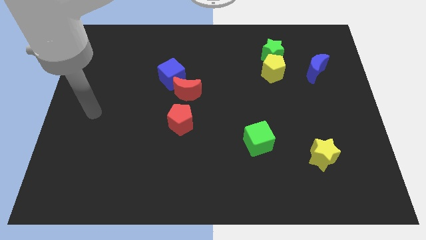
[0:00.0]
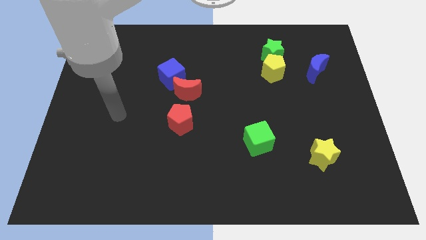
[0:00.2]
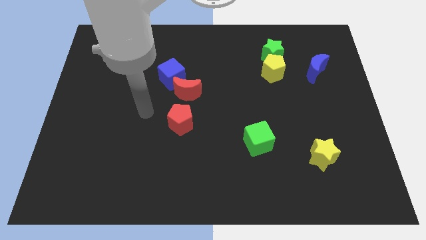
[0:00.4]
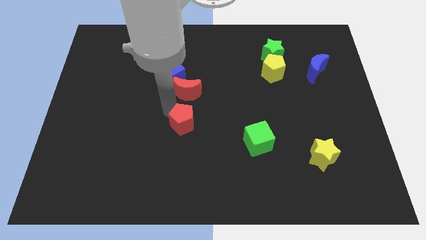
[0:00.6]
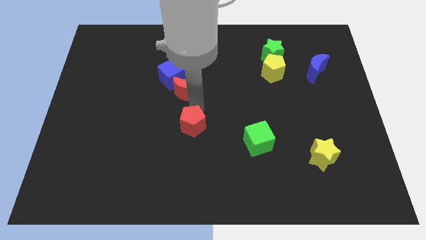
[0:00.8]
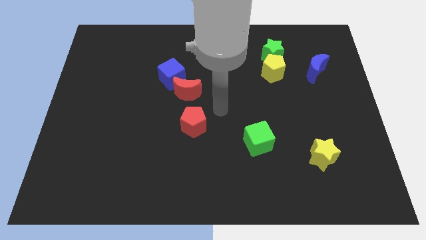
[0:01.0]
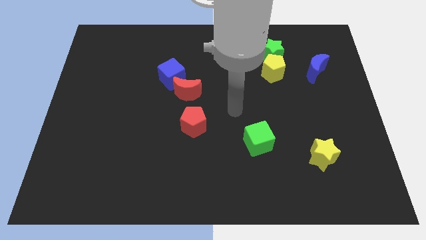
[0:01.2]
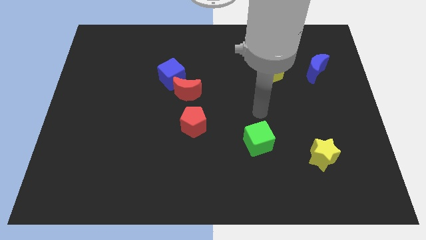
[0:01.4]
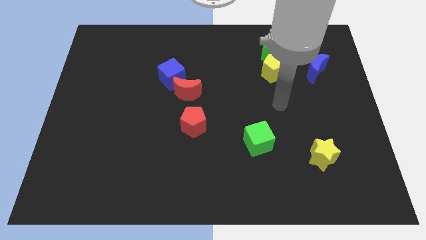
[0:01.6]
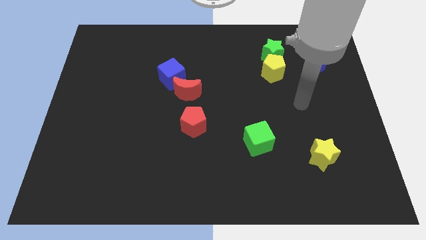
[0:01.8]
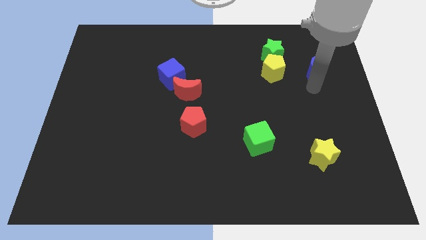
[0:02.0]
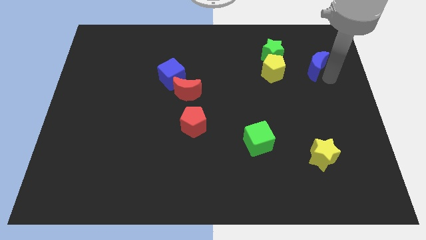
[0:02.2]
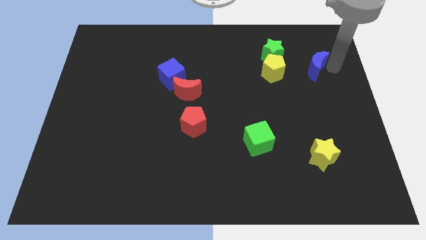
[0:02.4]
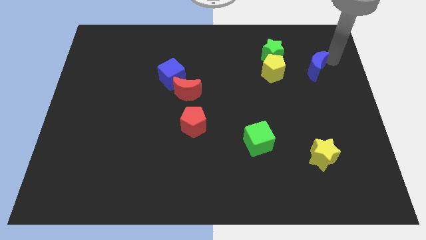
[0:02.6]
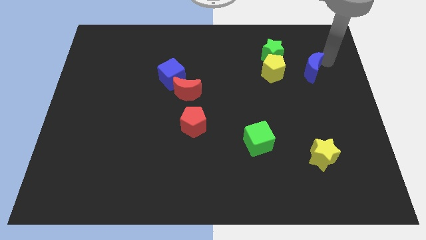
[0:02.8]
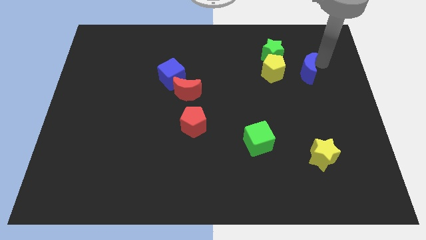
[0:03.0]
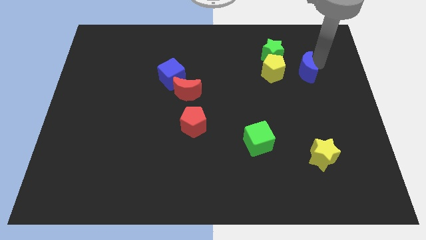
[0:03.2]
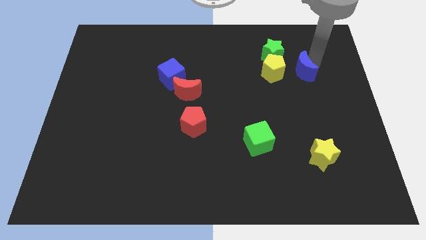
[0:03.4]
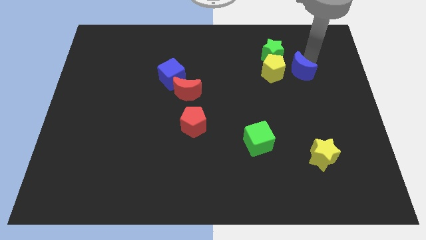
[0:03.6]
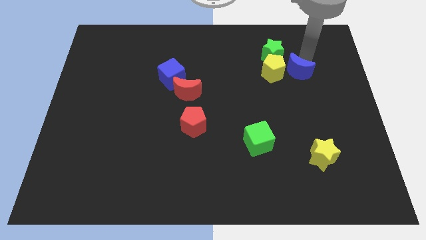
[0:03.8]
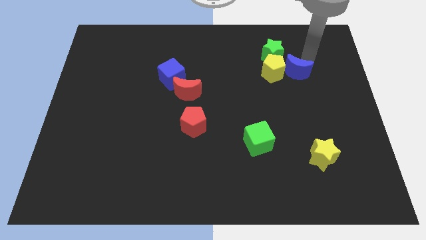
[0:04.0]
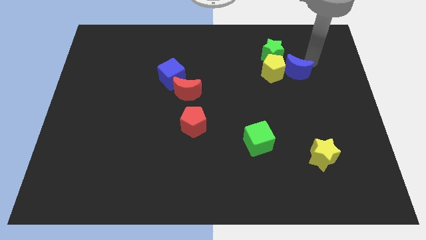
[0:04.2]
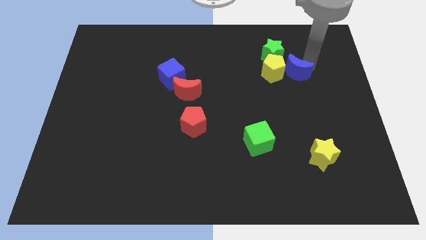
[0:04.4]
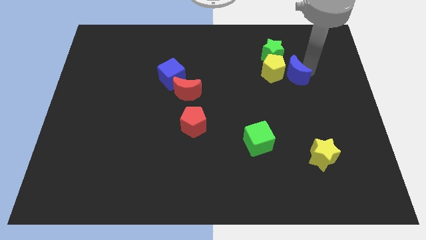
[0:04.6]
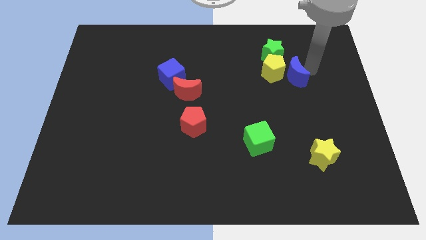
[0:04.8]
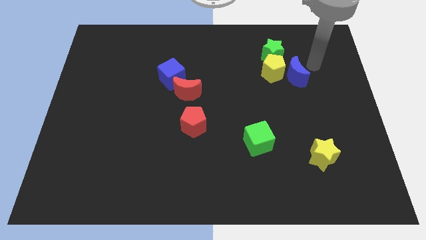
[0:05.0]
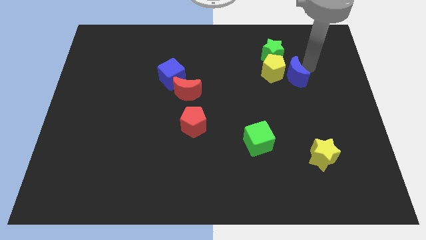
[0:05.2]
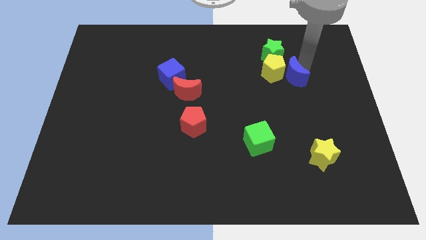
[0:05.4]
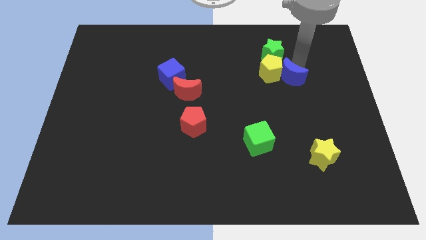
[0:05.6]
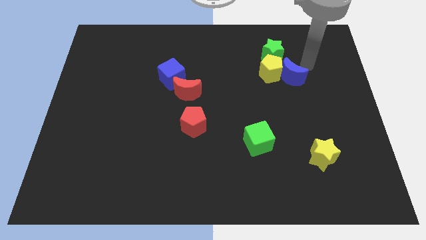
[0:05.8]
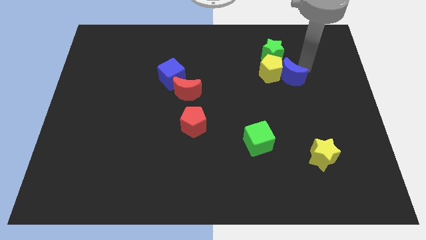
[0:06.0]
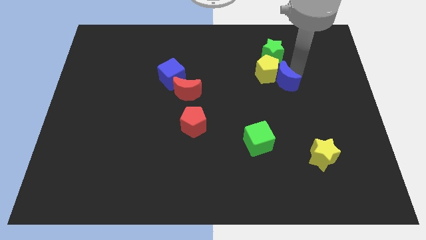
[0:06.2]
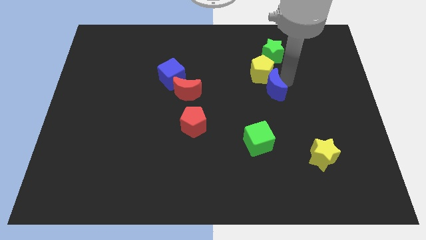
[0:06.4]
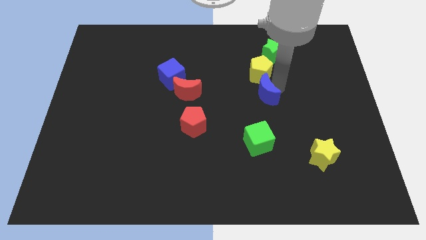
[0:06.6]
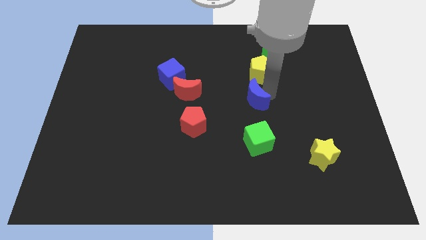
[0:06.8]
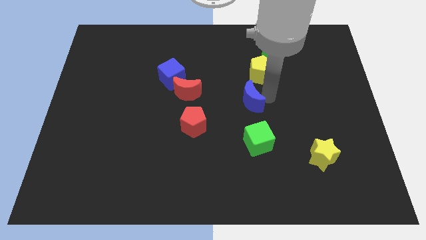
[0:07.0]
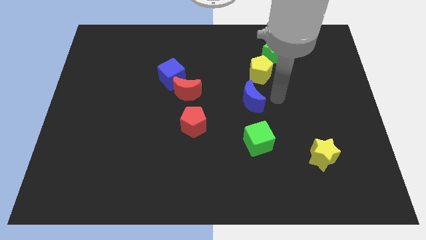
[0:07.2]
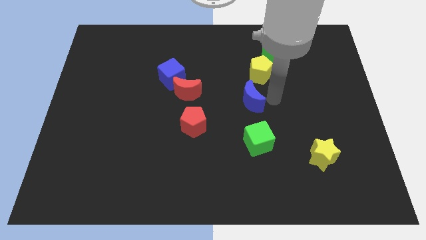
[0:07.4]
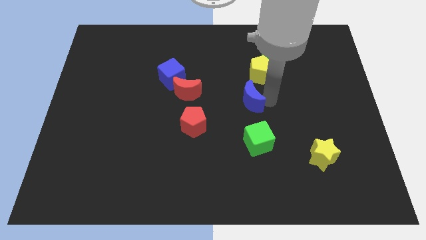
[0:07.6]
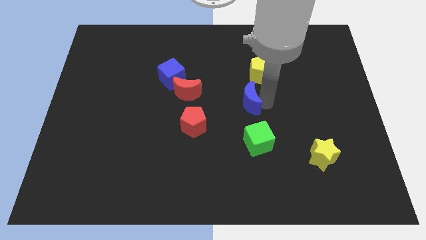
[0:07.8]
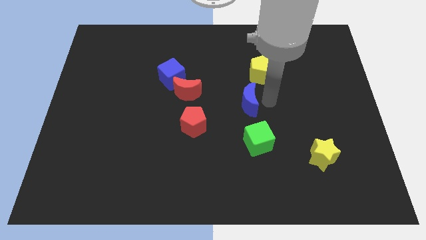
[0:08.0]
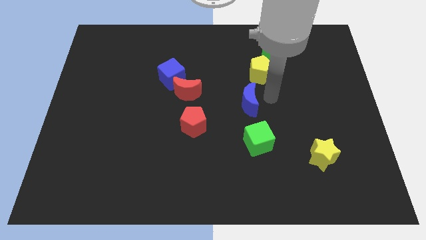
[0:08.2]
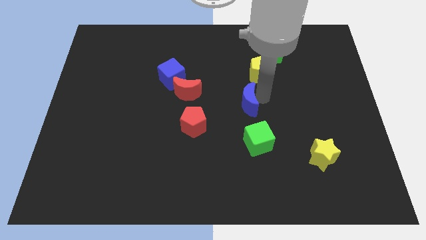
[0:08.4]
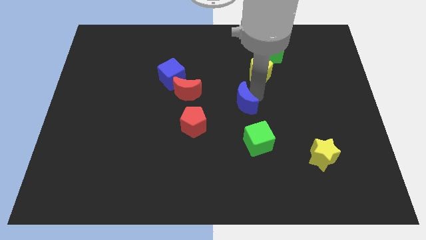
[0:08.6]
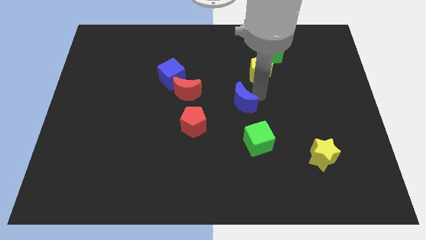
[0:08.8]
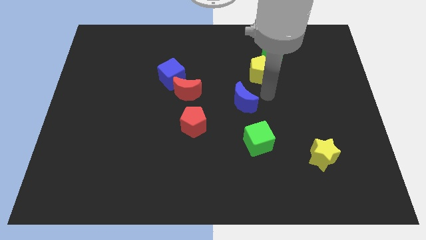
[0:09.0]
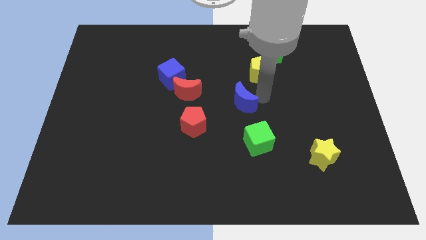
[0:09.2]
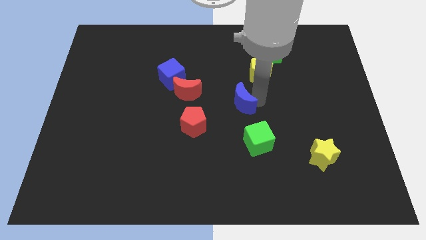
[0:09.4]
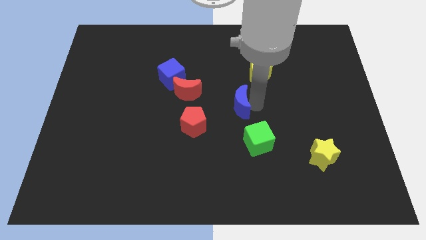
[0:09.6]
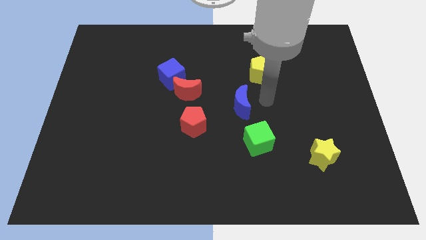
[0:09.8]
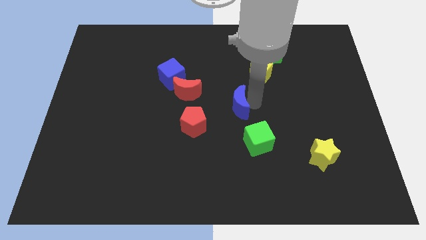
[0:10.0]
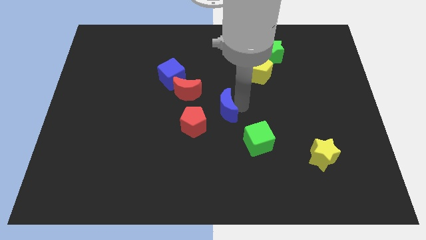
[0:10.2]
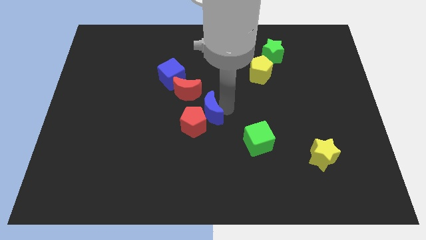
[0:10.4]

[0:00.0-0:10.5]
move the blue moon close to the red pentagon

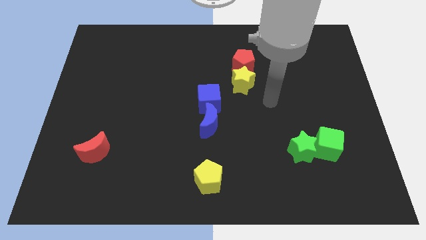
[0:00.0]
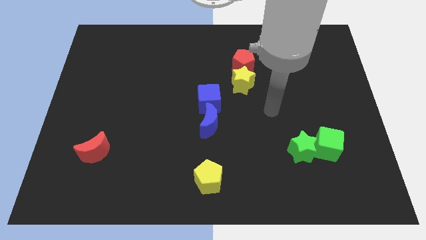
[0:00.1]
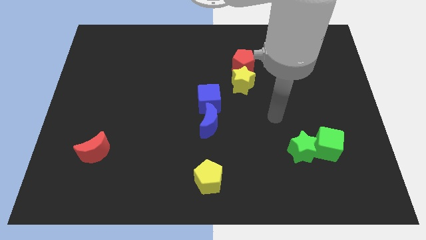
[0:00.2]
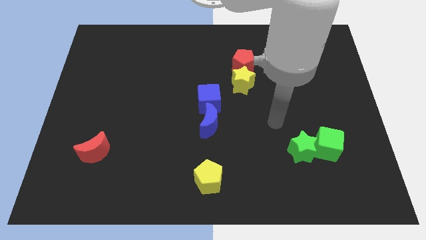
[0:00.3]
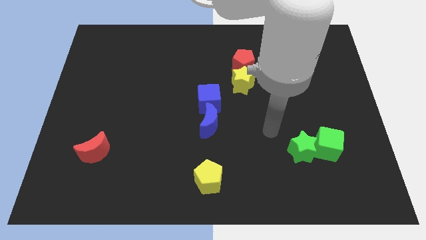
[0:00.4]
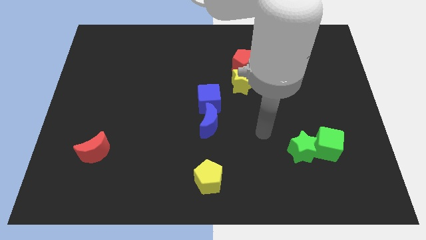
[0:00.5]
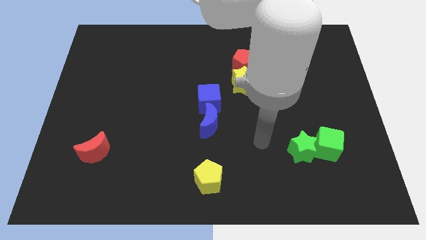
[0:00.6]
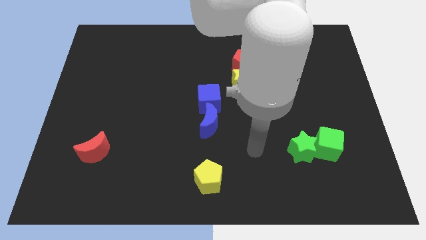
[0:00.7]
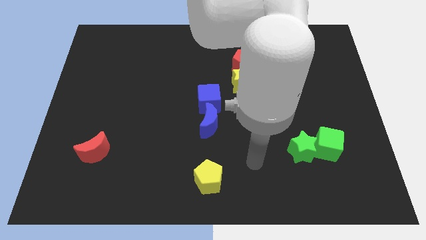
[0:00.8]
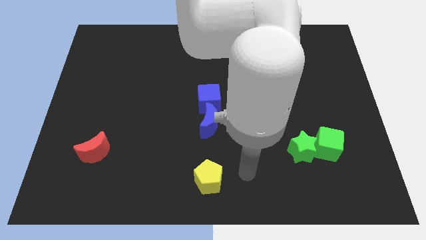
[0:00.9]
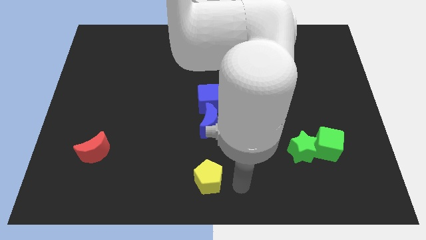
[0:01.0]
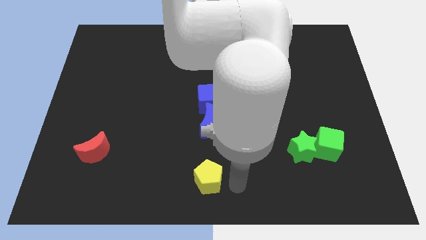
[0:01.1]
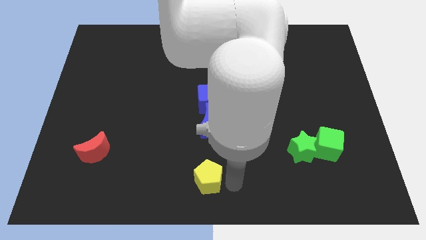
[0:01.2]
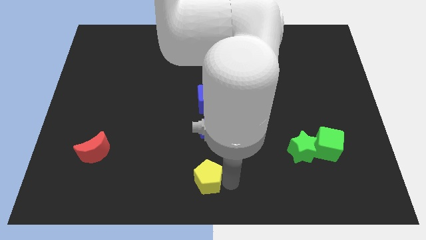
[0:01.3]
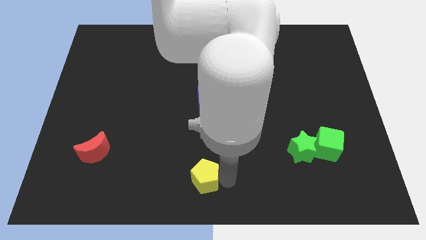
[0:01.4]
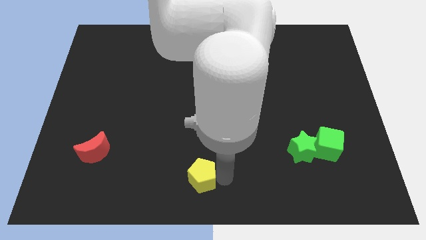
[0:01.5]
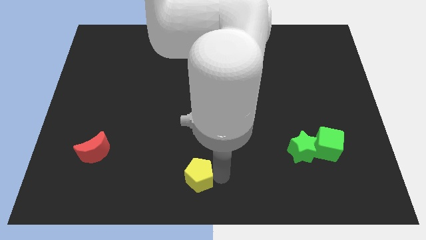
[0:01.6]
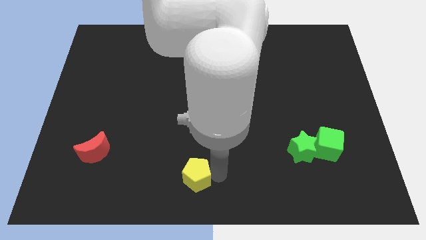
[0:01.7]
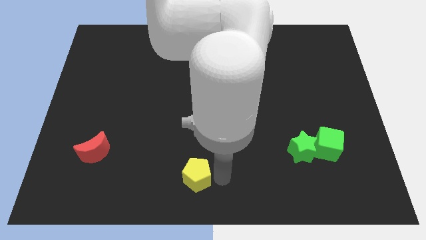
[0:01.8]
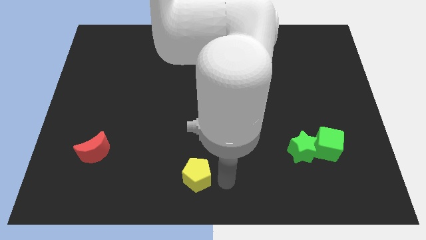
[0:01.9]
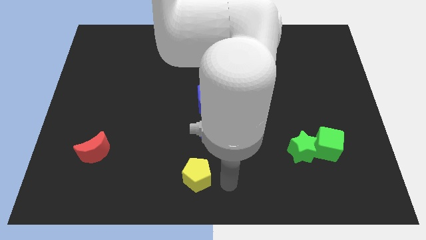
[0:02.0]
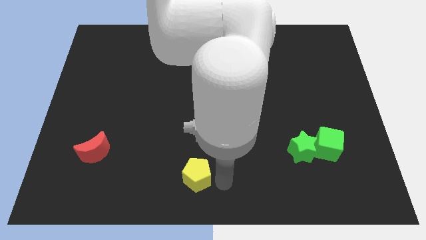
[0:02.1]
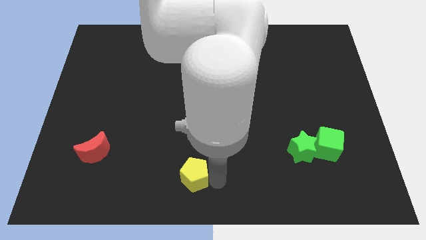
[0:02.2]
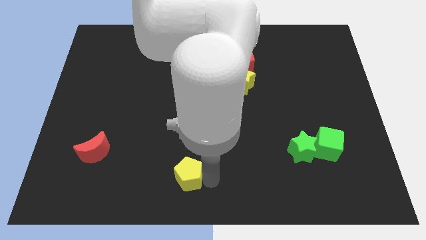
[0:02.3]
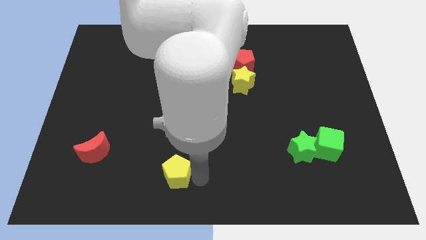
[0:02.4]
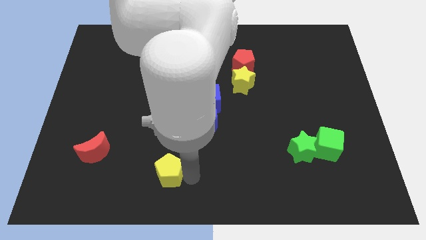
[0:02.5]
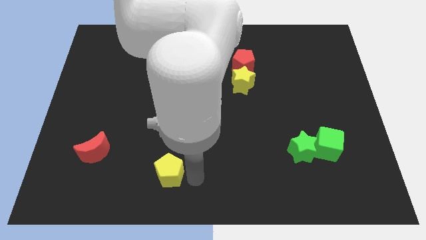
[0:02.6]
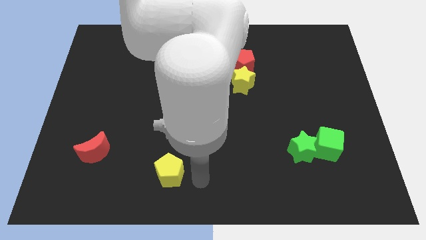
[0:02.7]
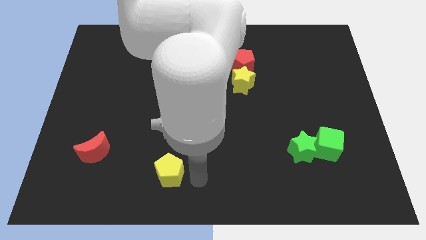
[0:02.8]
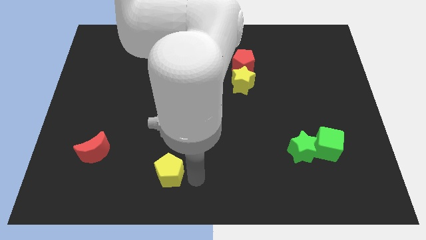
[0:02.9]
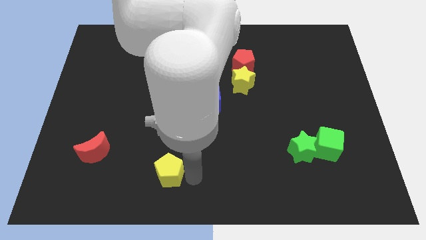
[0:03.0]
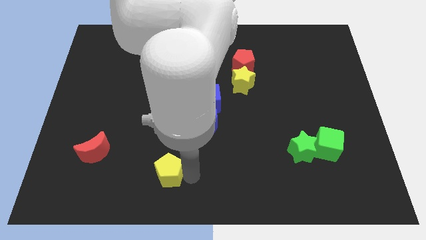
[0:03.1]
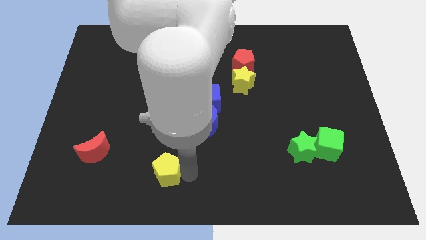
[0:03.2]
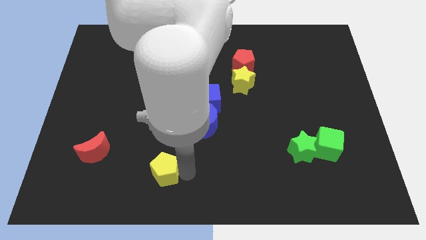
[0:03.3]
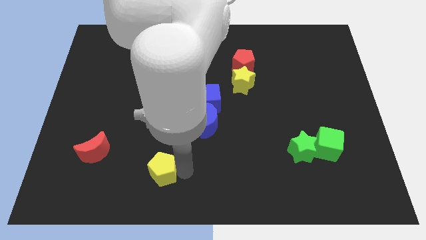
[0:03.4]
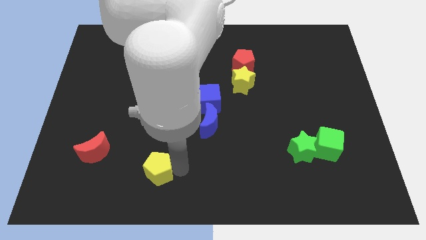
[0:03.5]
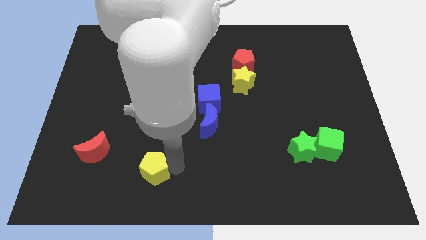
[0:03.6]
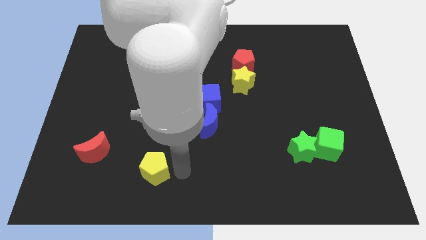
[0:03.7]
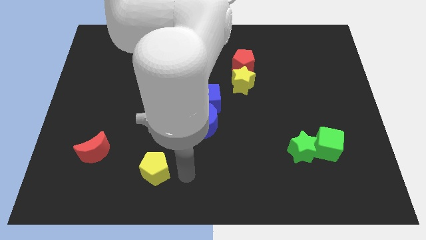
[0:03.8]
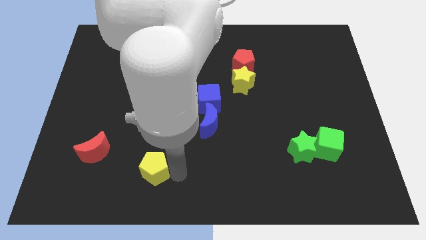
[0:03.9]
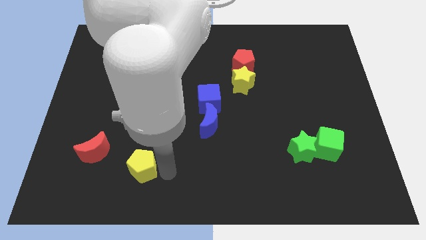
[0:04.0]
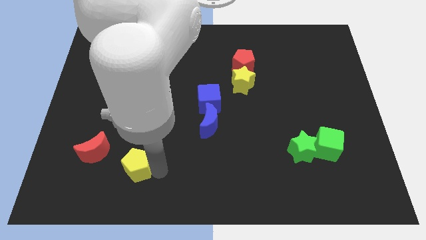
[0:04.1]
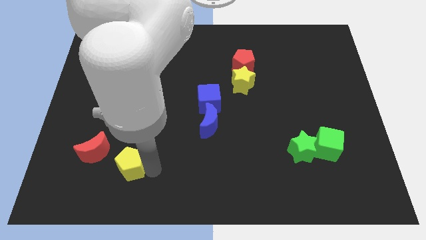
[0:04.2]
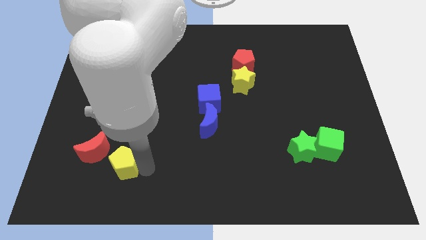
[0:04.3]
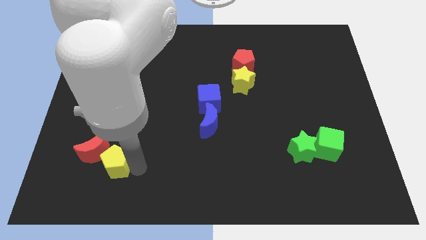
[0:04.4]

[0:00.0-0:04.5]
put the yellow pentagon close to the red moon
